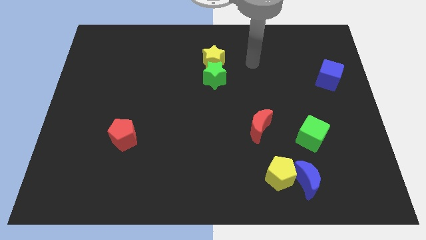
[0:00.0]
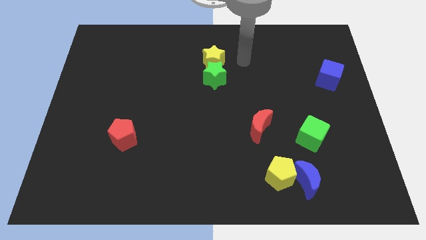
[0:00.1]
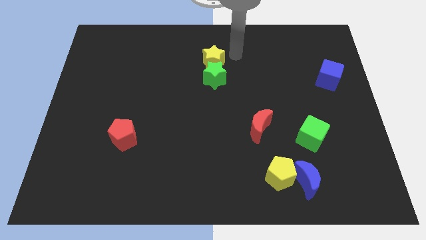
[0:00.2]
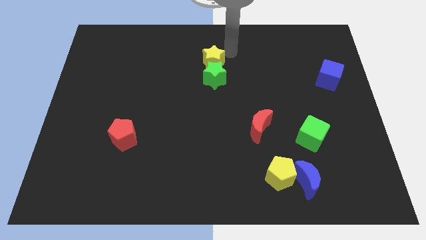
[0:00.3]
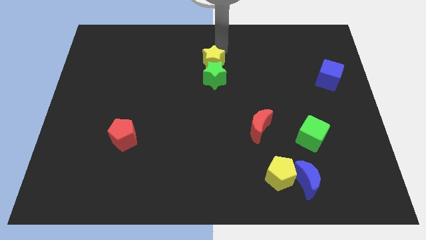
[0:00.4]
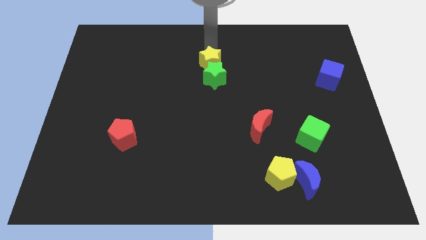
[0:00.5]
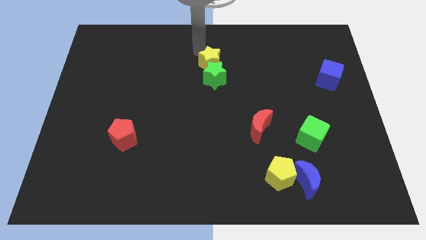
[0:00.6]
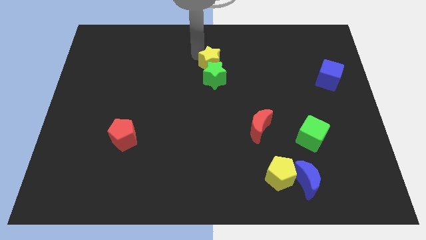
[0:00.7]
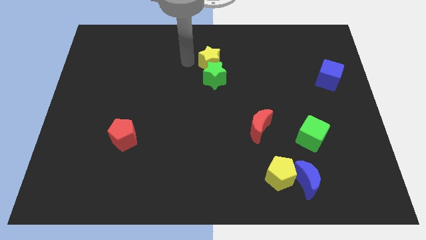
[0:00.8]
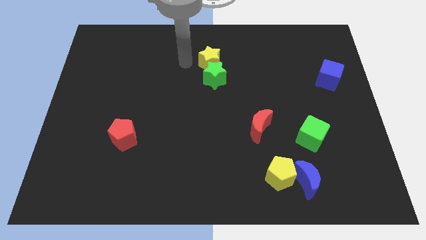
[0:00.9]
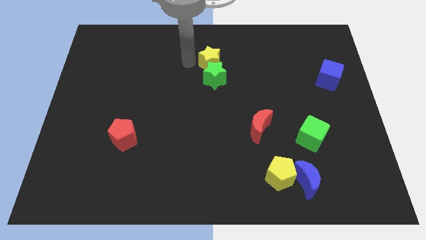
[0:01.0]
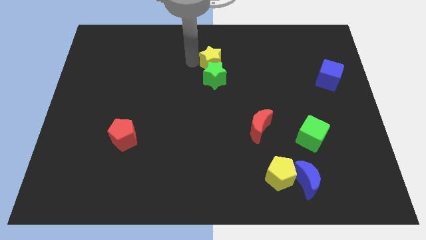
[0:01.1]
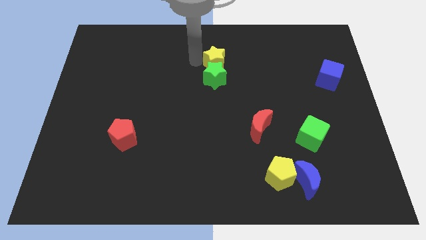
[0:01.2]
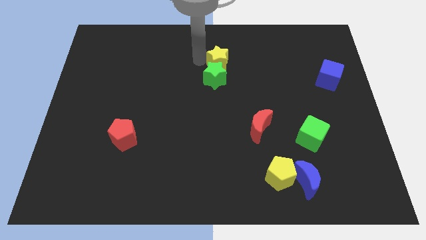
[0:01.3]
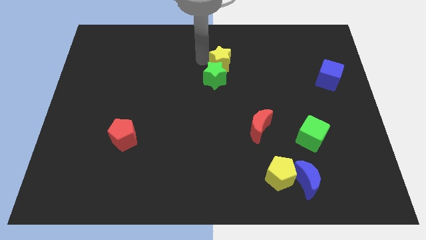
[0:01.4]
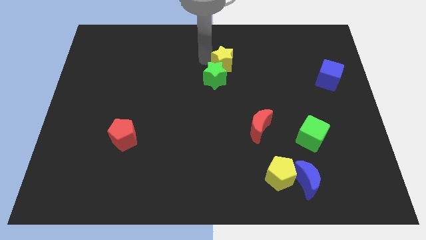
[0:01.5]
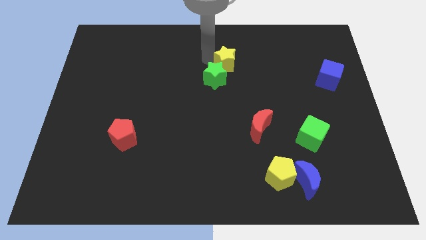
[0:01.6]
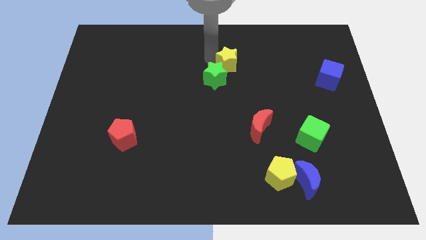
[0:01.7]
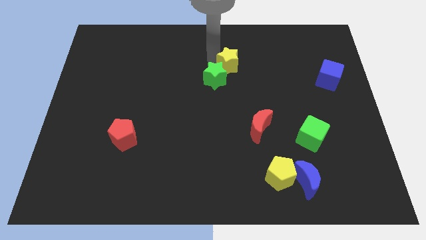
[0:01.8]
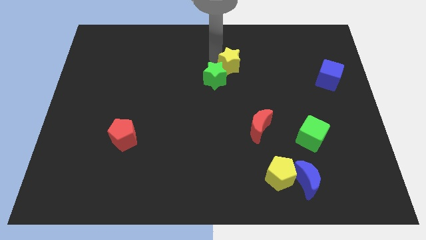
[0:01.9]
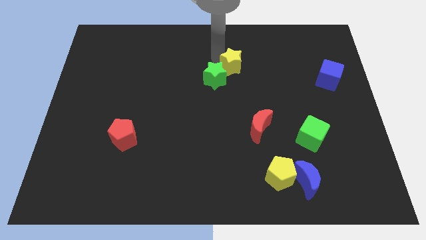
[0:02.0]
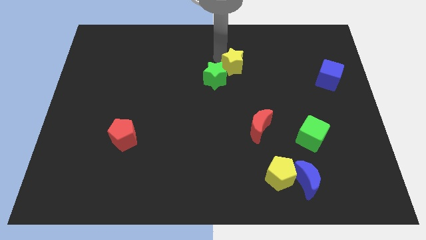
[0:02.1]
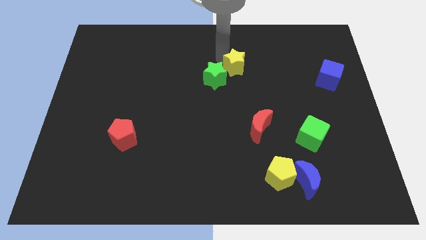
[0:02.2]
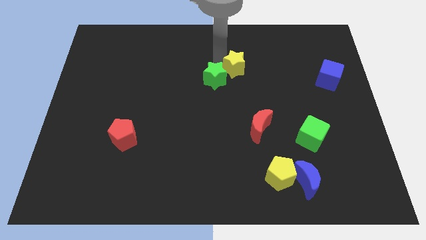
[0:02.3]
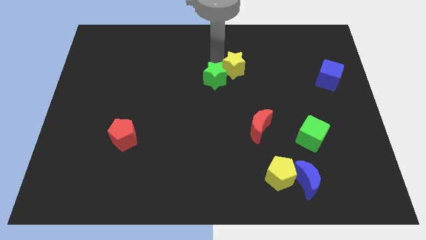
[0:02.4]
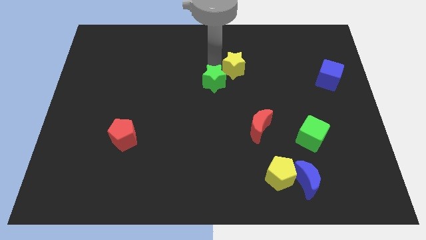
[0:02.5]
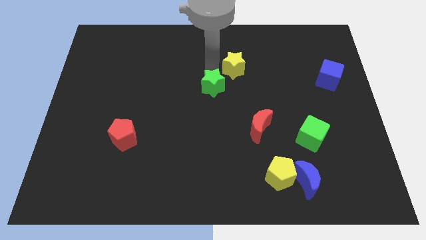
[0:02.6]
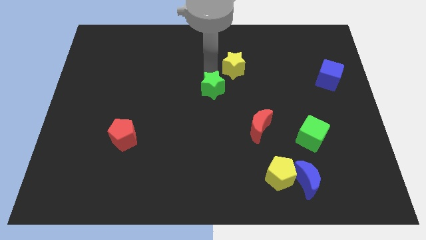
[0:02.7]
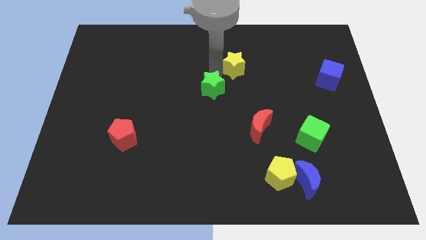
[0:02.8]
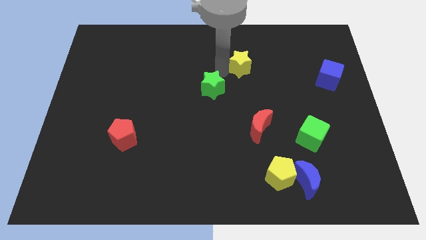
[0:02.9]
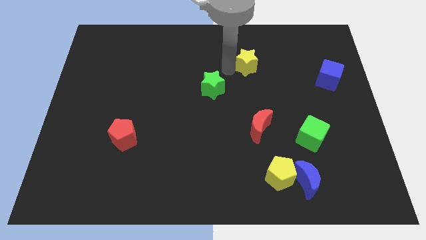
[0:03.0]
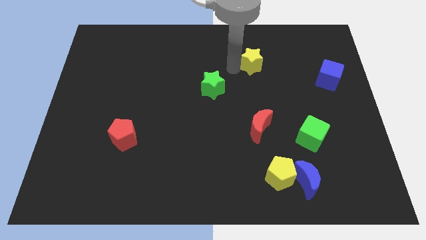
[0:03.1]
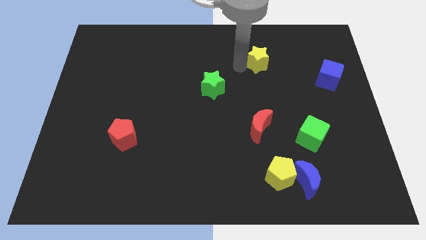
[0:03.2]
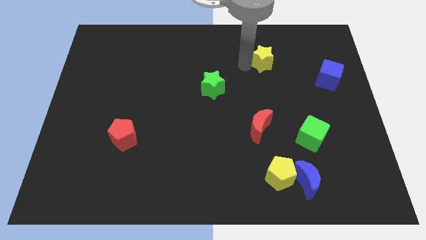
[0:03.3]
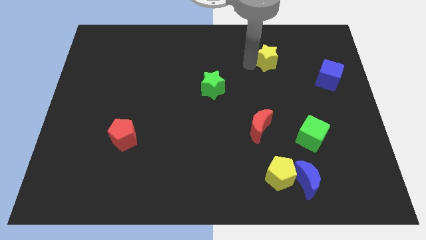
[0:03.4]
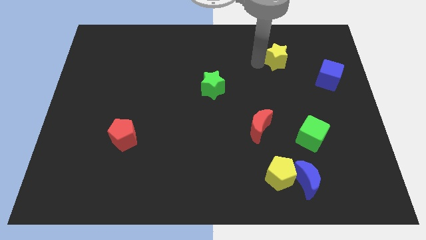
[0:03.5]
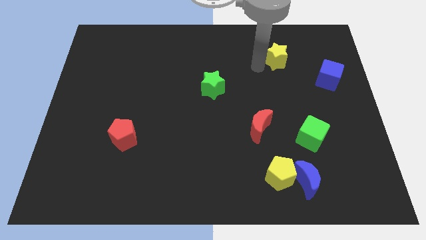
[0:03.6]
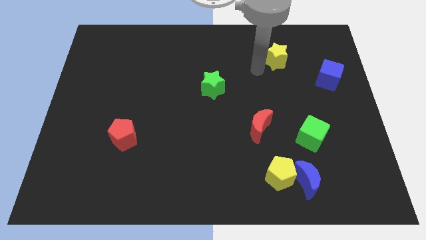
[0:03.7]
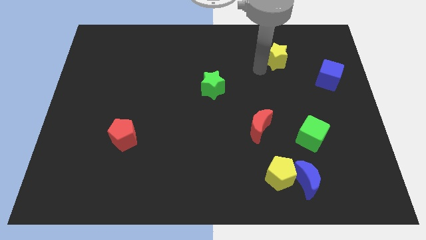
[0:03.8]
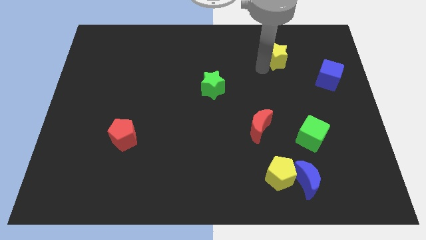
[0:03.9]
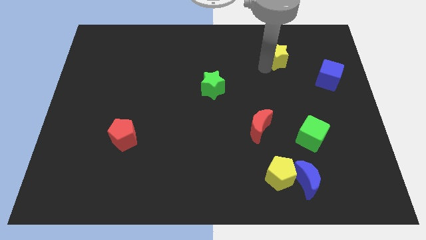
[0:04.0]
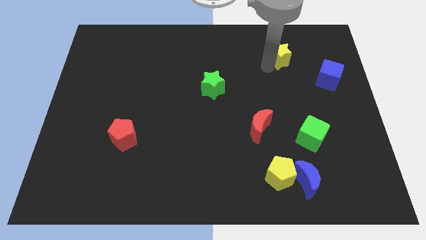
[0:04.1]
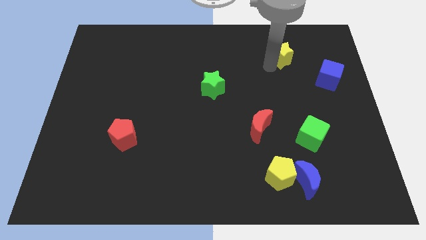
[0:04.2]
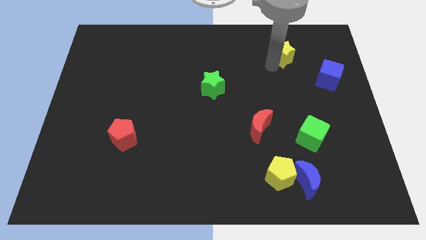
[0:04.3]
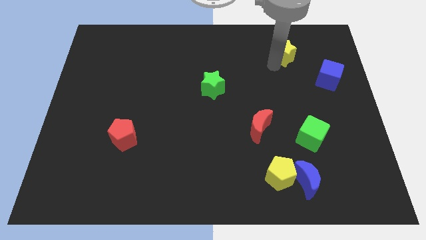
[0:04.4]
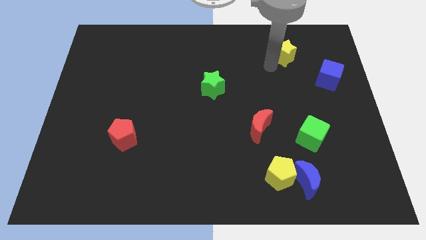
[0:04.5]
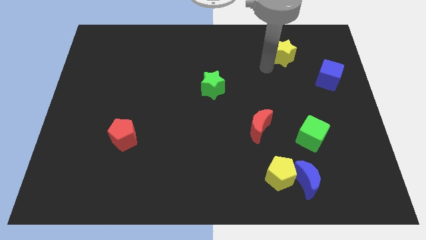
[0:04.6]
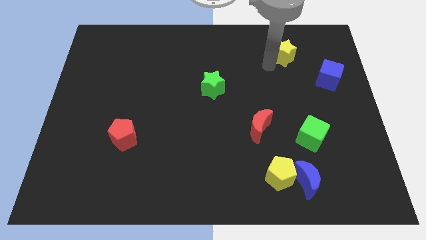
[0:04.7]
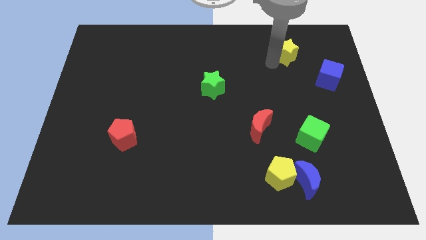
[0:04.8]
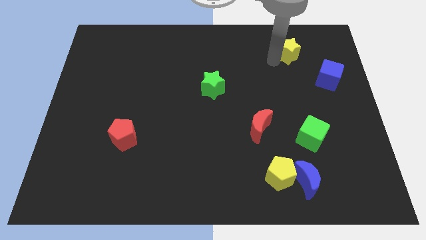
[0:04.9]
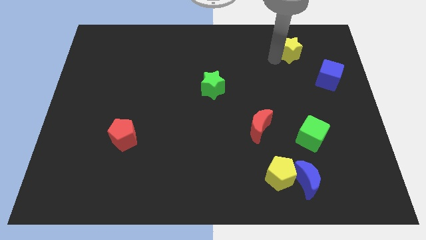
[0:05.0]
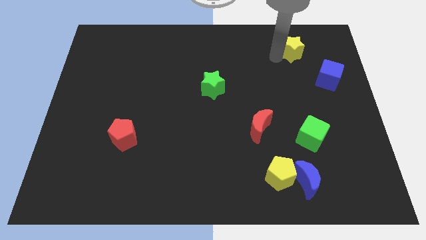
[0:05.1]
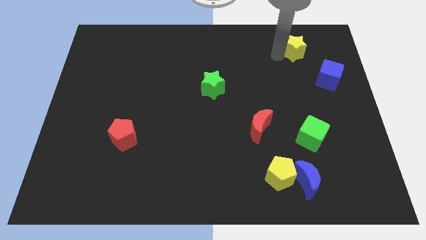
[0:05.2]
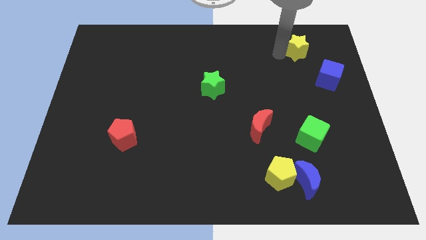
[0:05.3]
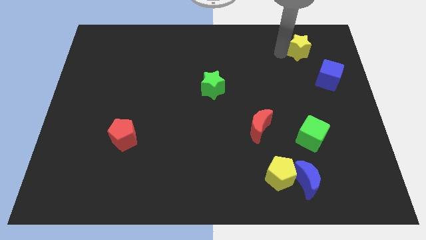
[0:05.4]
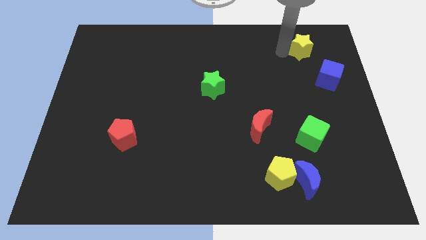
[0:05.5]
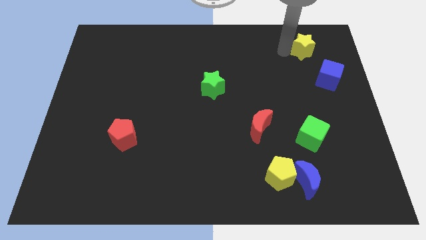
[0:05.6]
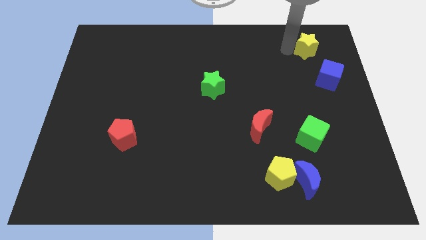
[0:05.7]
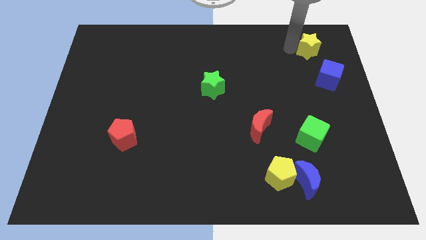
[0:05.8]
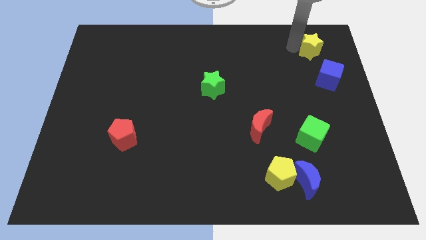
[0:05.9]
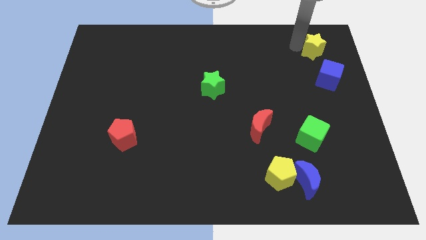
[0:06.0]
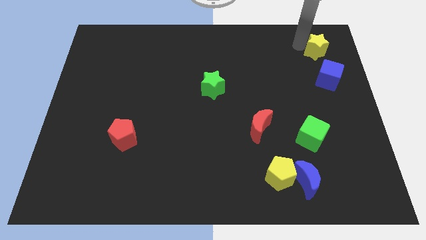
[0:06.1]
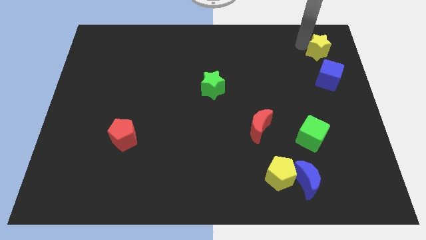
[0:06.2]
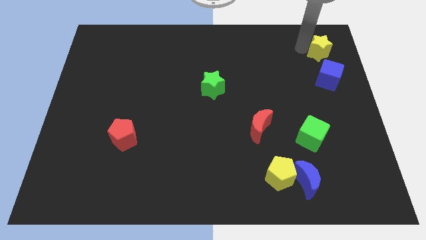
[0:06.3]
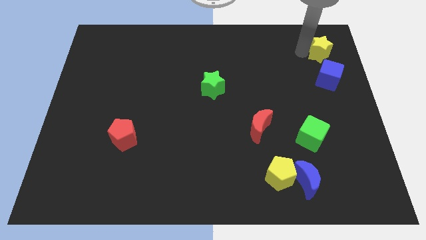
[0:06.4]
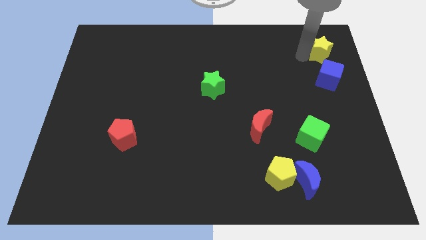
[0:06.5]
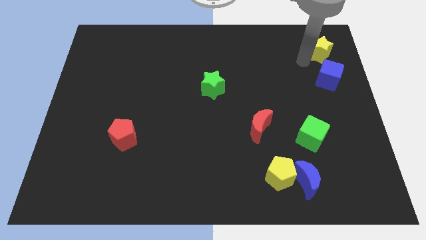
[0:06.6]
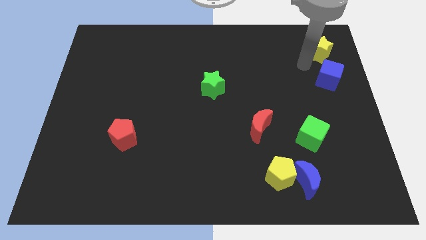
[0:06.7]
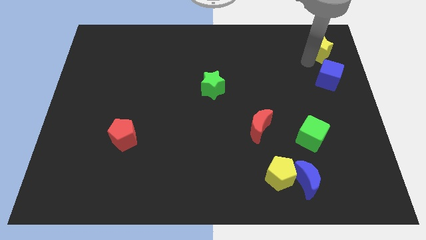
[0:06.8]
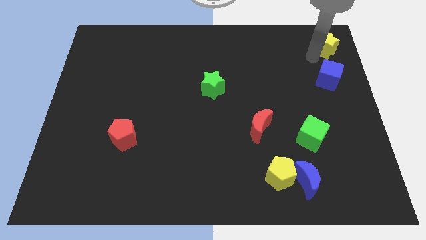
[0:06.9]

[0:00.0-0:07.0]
put the yellow star to the top right of the board
